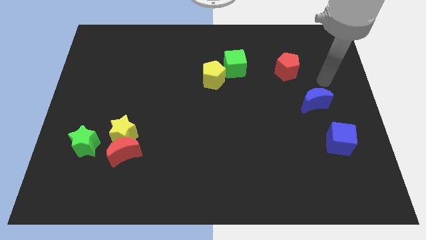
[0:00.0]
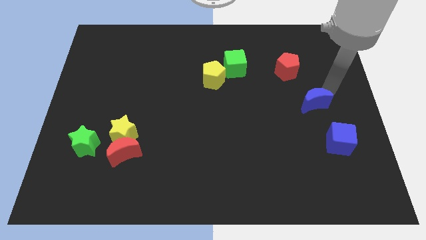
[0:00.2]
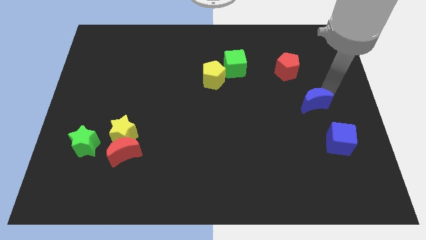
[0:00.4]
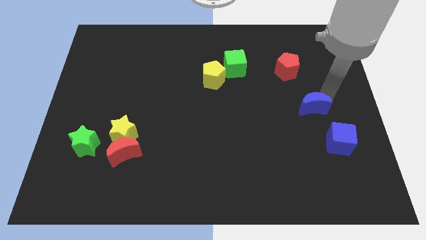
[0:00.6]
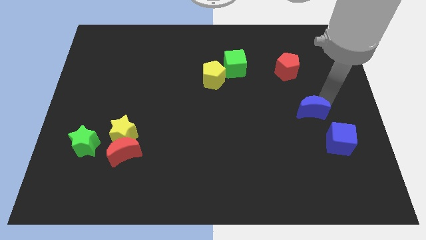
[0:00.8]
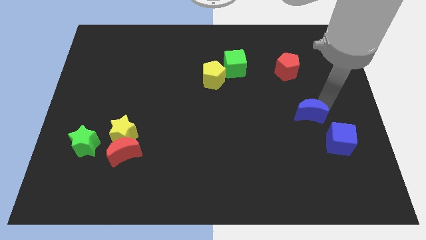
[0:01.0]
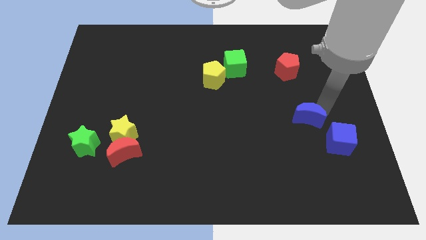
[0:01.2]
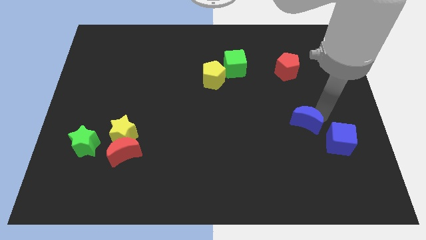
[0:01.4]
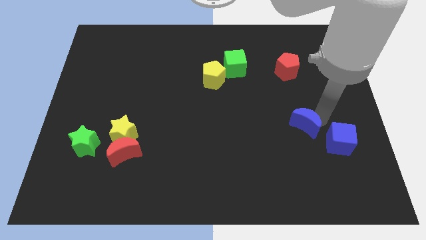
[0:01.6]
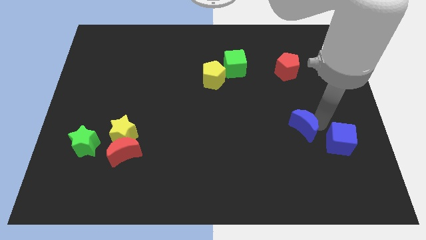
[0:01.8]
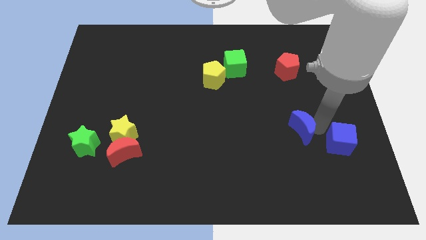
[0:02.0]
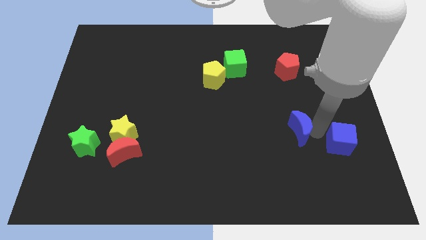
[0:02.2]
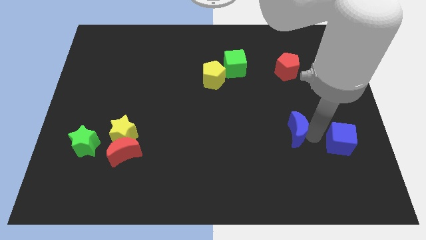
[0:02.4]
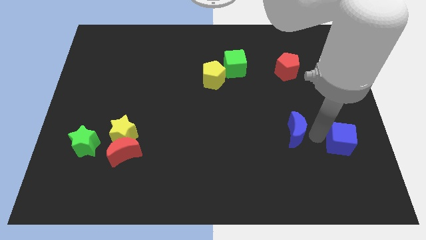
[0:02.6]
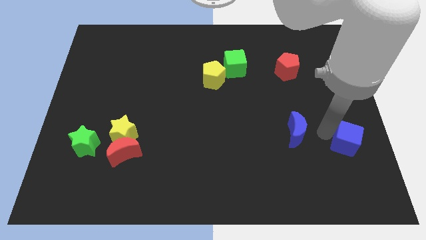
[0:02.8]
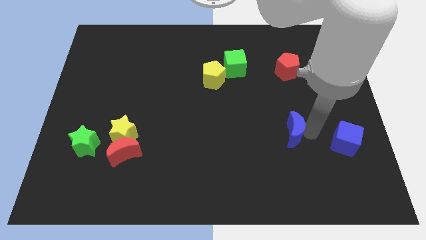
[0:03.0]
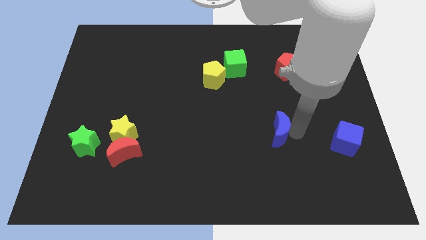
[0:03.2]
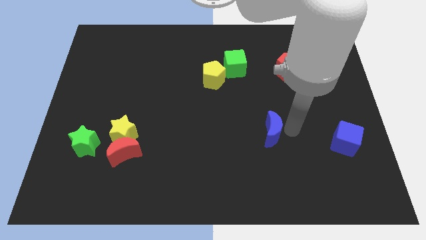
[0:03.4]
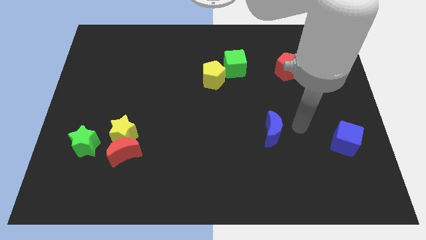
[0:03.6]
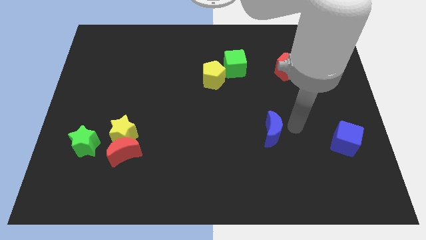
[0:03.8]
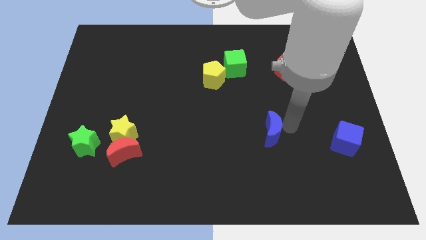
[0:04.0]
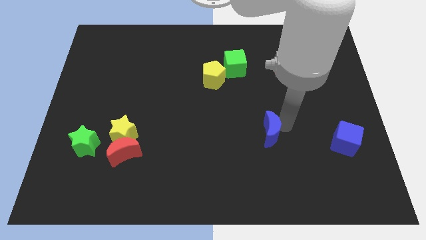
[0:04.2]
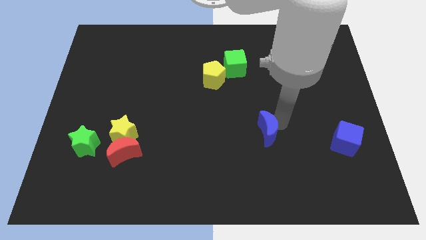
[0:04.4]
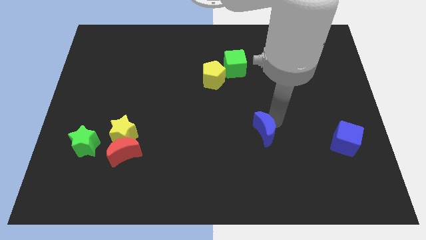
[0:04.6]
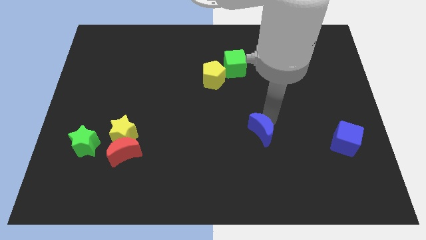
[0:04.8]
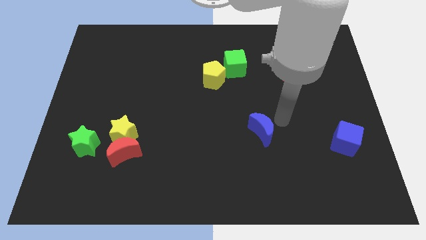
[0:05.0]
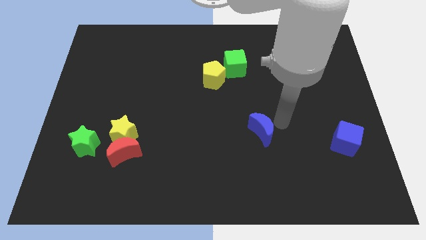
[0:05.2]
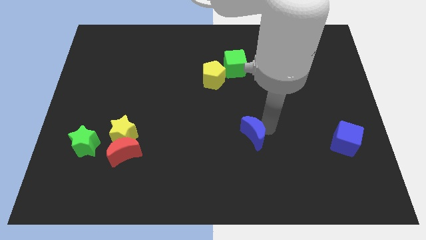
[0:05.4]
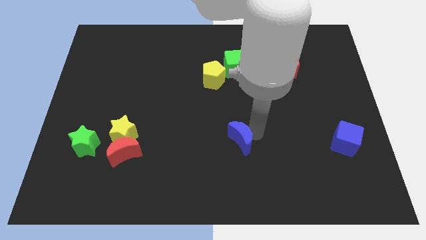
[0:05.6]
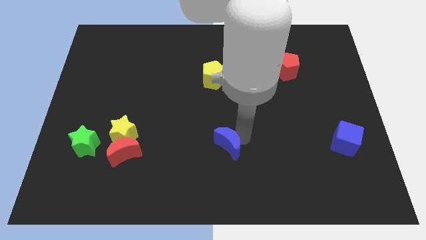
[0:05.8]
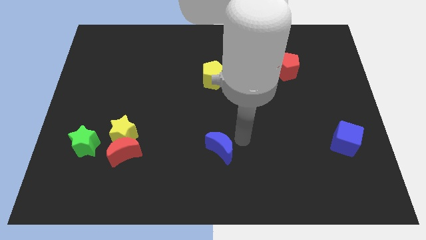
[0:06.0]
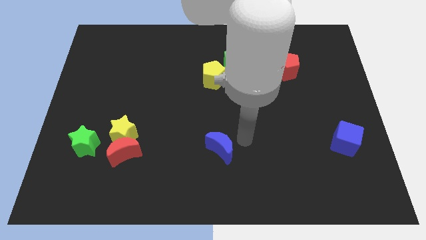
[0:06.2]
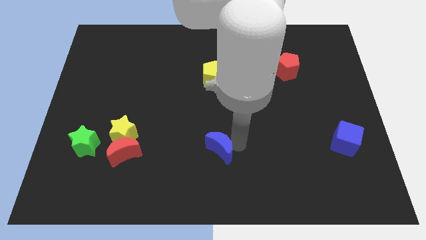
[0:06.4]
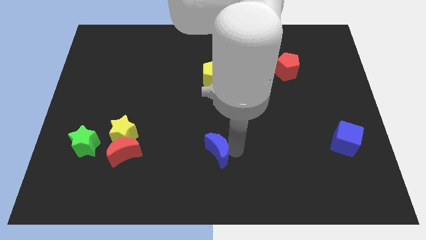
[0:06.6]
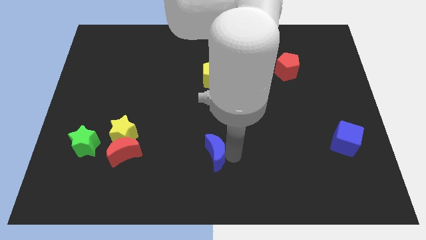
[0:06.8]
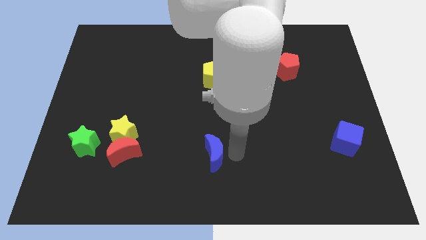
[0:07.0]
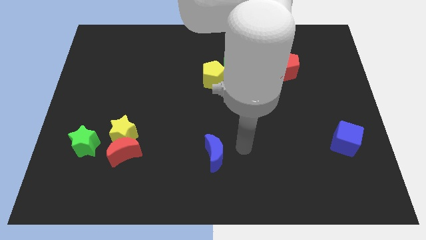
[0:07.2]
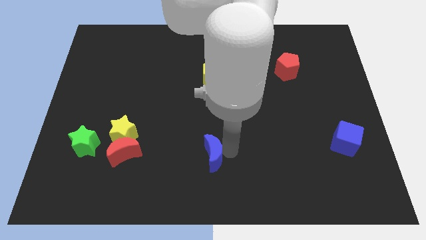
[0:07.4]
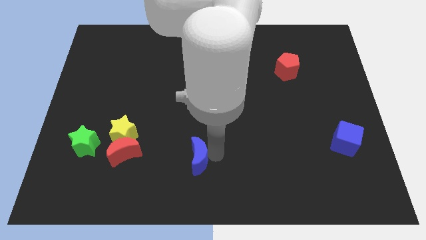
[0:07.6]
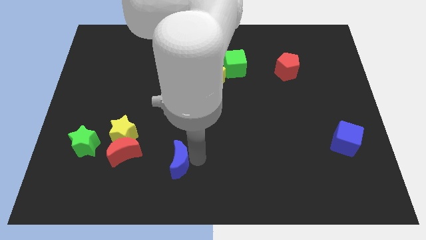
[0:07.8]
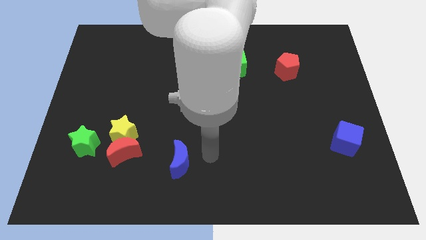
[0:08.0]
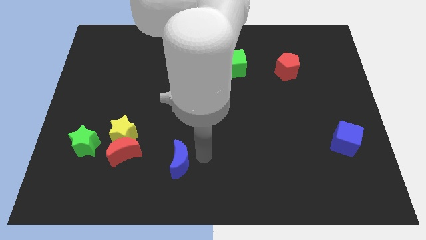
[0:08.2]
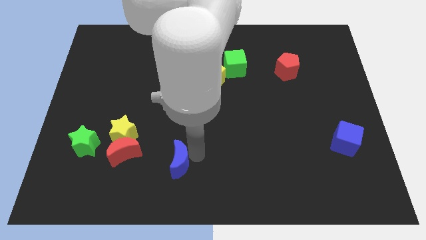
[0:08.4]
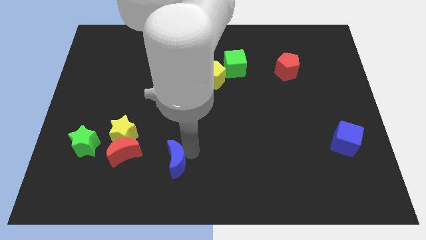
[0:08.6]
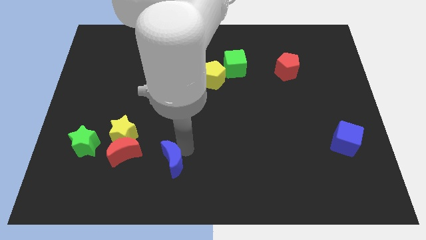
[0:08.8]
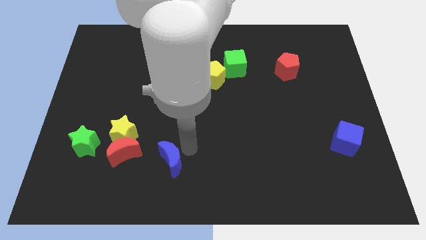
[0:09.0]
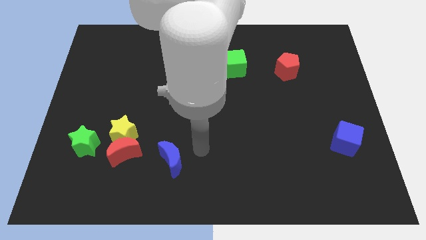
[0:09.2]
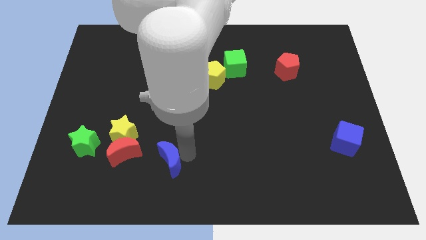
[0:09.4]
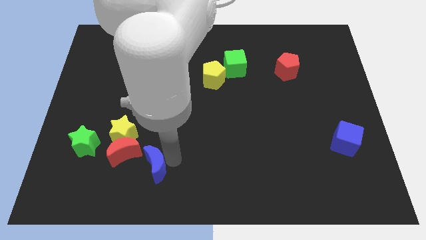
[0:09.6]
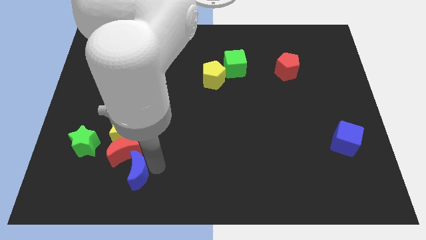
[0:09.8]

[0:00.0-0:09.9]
push the blue moon to the bottom side of the yellow star

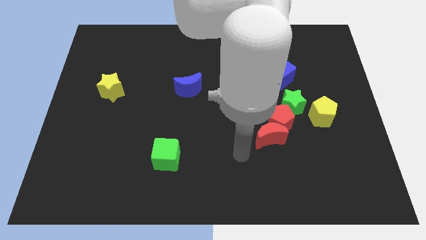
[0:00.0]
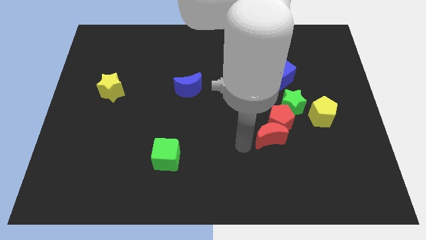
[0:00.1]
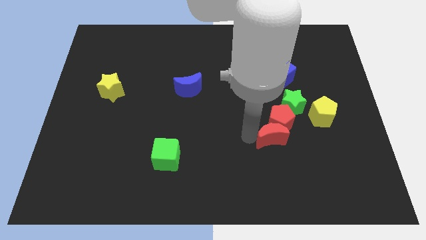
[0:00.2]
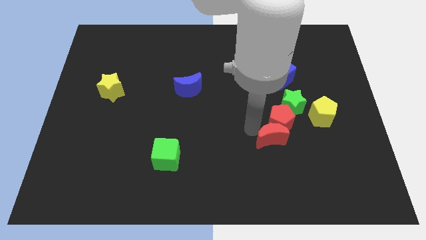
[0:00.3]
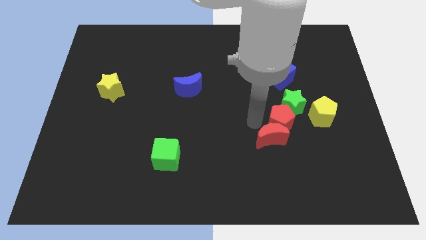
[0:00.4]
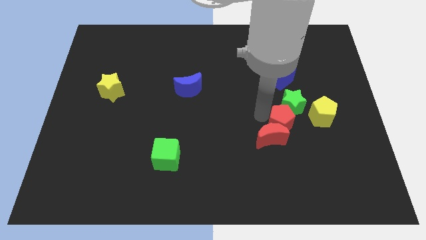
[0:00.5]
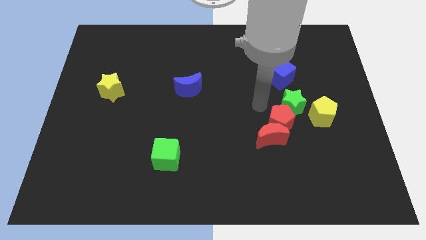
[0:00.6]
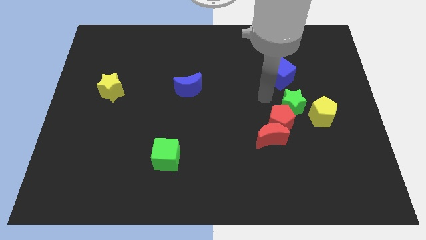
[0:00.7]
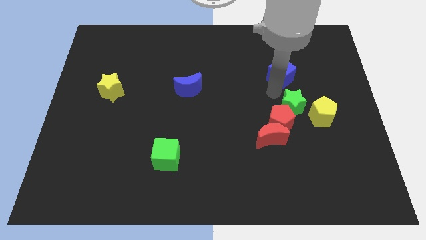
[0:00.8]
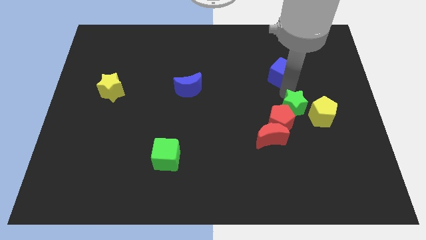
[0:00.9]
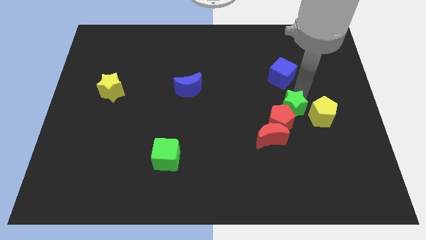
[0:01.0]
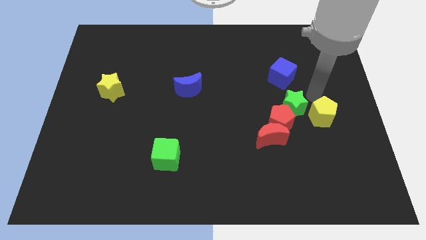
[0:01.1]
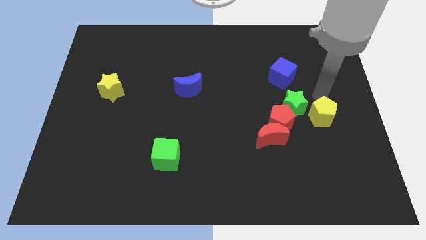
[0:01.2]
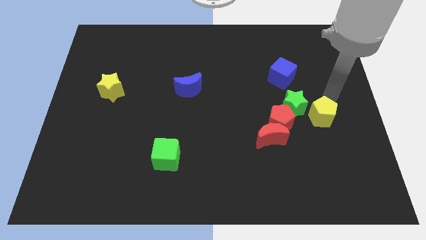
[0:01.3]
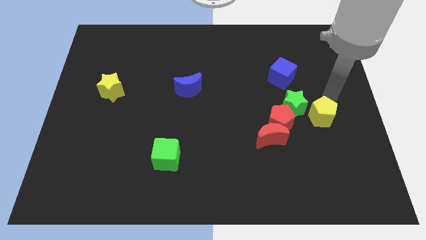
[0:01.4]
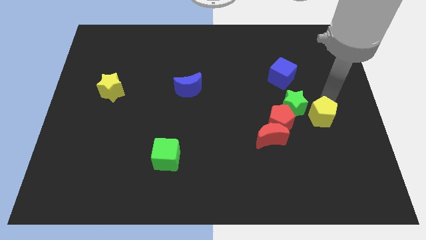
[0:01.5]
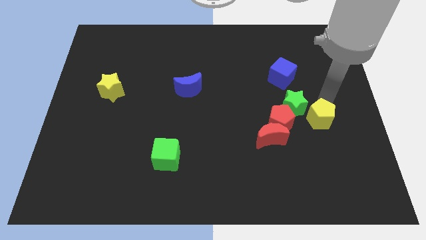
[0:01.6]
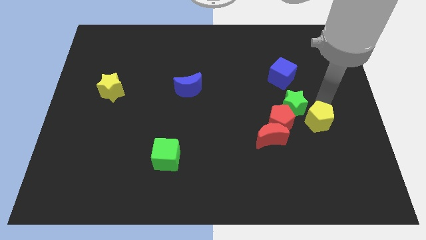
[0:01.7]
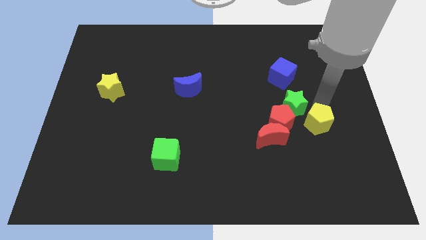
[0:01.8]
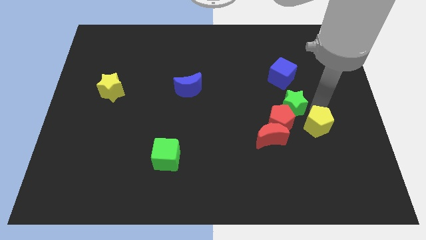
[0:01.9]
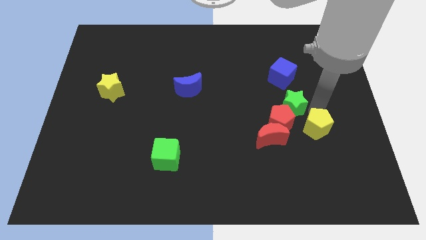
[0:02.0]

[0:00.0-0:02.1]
slide the yellow pentagon to the bottom right side of the red pentagon
